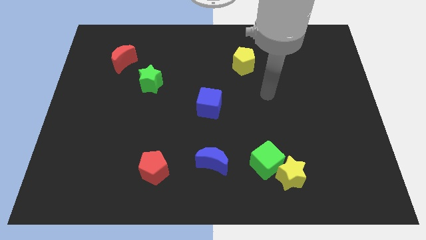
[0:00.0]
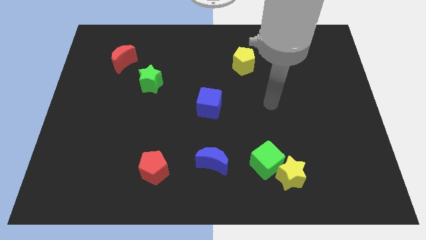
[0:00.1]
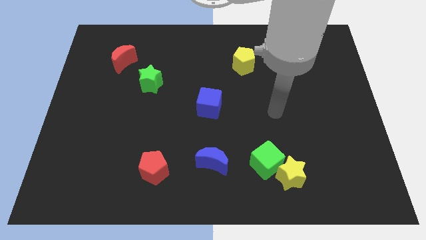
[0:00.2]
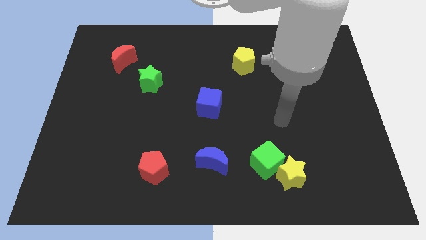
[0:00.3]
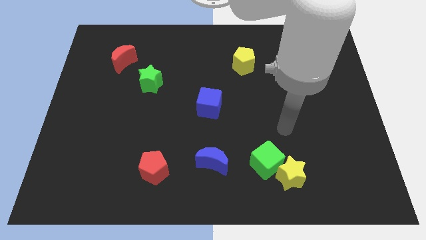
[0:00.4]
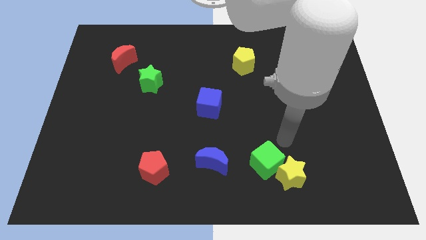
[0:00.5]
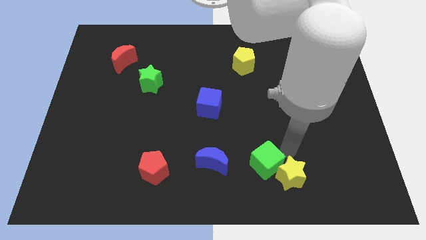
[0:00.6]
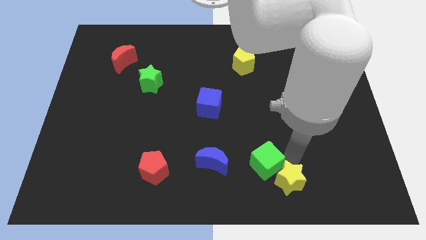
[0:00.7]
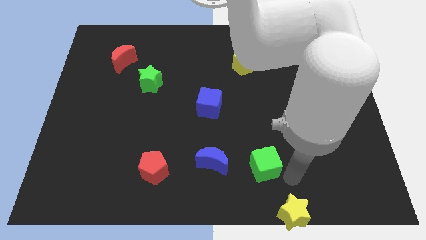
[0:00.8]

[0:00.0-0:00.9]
pull the green cube apart from the yellow star

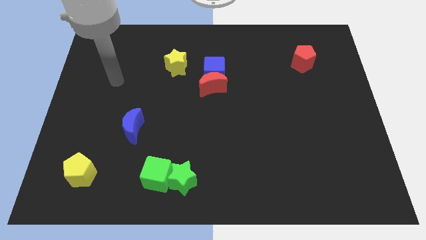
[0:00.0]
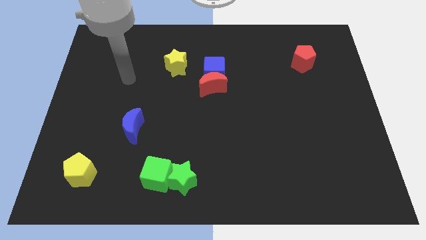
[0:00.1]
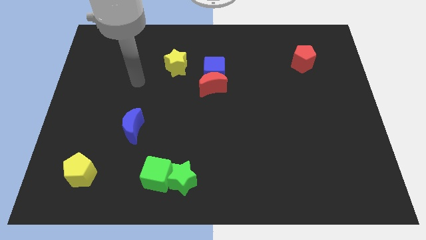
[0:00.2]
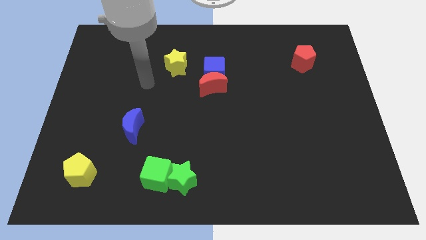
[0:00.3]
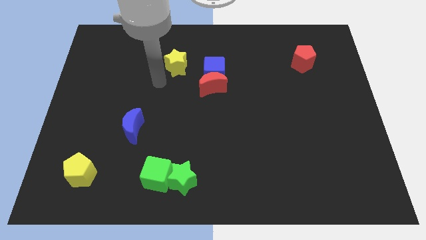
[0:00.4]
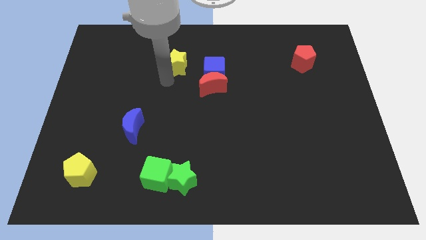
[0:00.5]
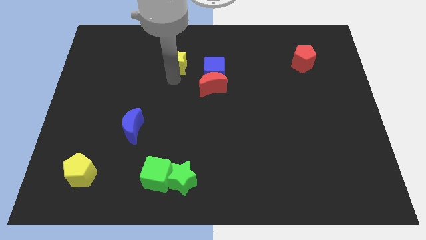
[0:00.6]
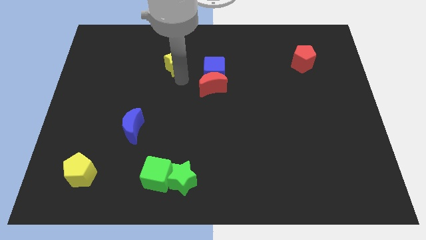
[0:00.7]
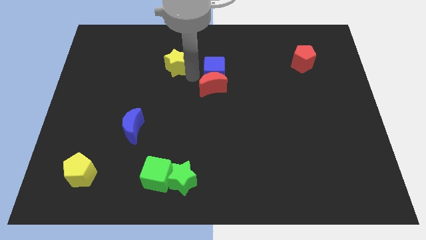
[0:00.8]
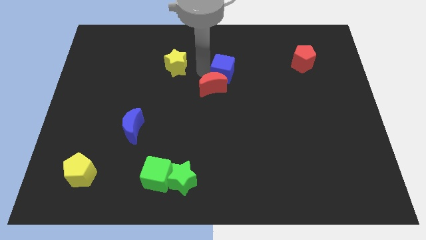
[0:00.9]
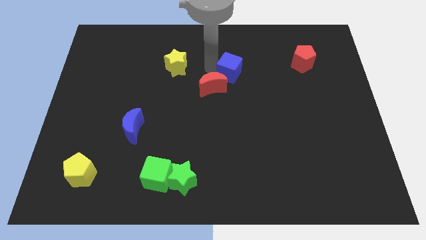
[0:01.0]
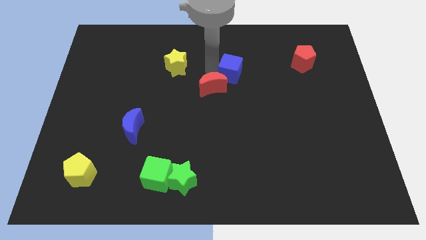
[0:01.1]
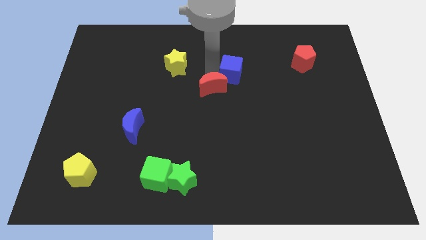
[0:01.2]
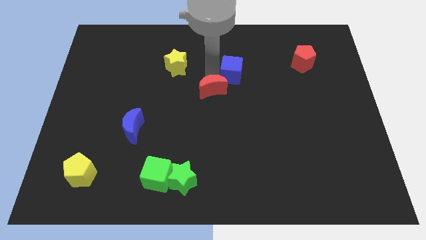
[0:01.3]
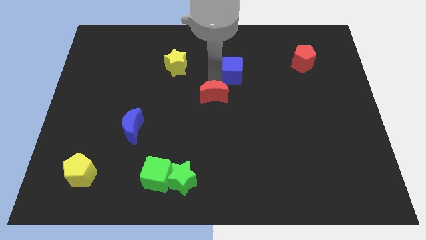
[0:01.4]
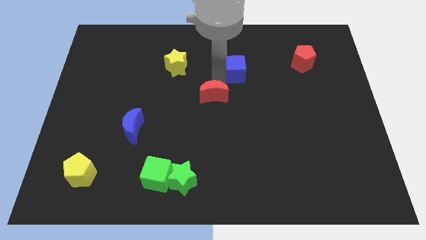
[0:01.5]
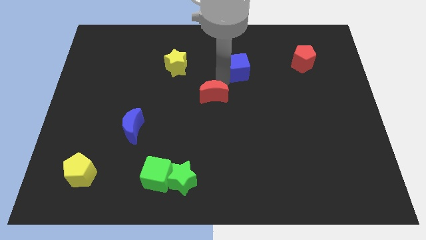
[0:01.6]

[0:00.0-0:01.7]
separate the red moon from the blue cube

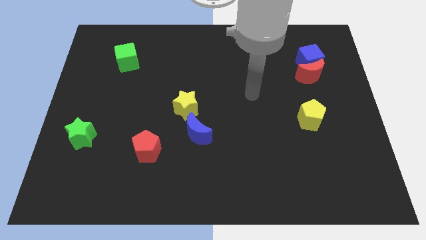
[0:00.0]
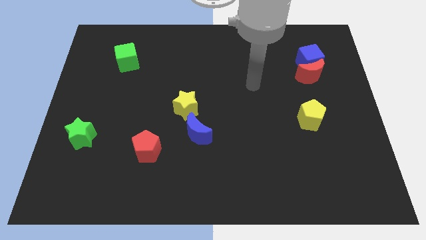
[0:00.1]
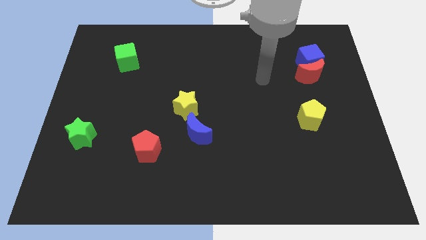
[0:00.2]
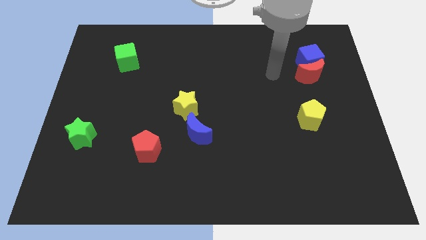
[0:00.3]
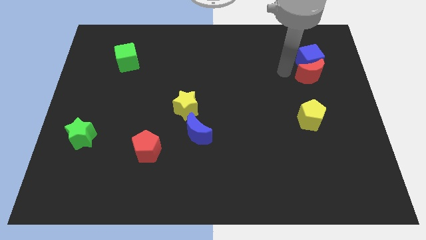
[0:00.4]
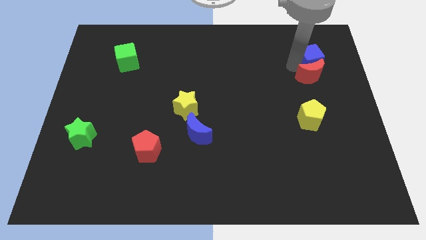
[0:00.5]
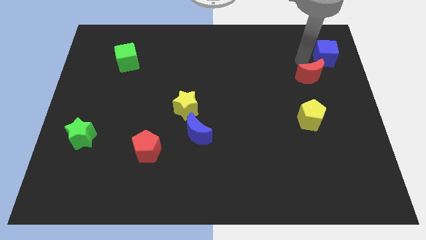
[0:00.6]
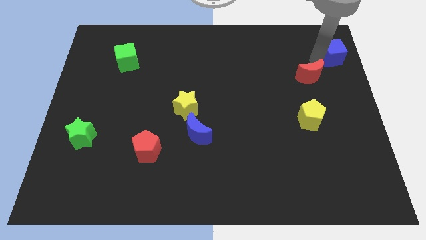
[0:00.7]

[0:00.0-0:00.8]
move the red moon away from the blue cube

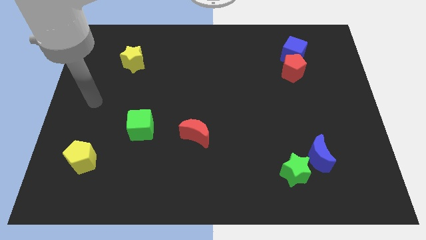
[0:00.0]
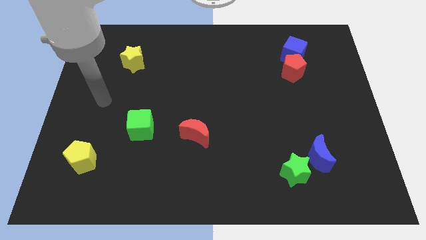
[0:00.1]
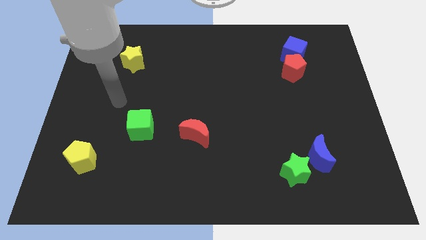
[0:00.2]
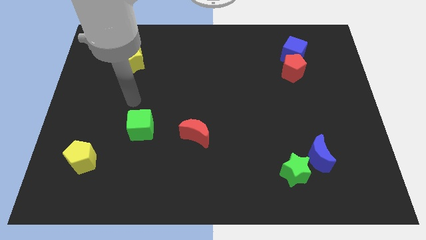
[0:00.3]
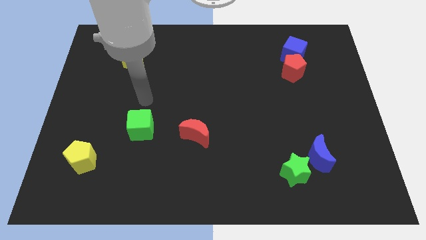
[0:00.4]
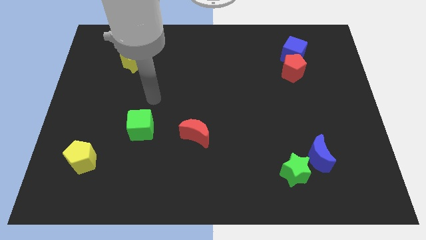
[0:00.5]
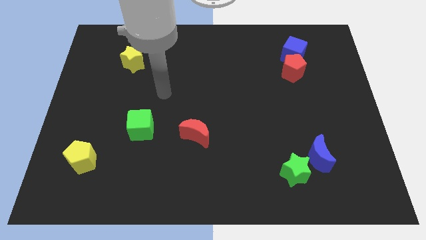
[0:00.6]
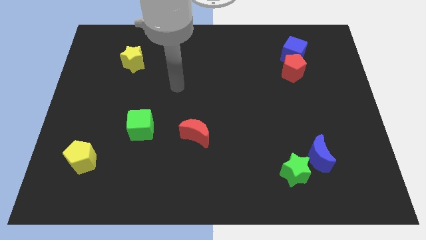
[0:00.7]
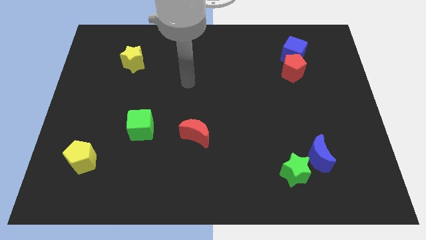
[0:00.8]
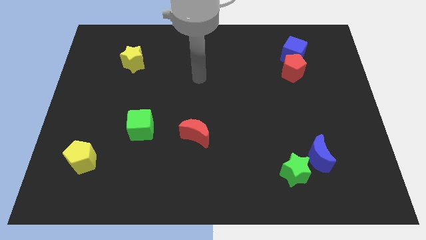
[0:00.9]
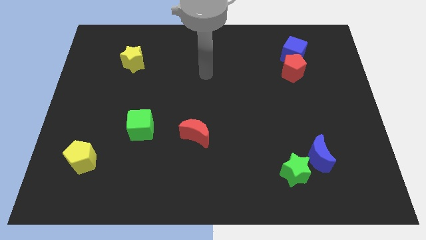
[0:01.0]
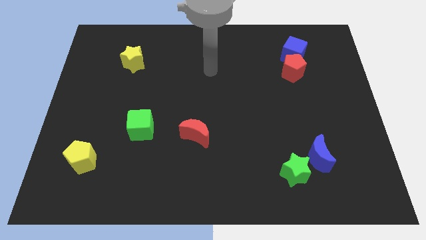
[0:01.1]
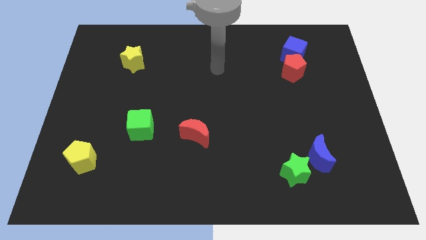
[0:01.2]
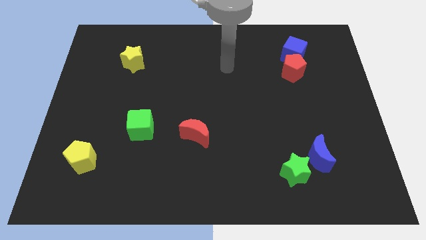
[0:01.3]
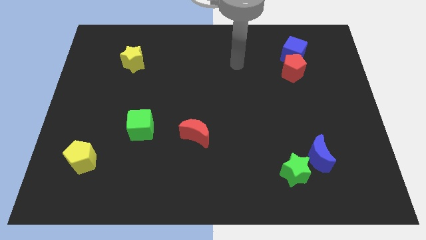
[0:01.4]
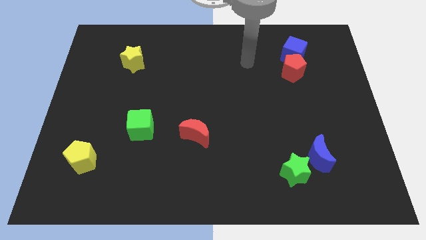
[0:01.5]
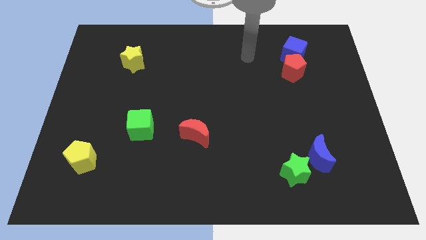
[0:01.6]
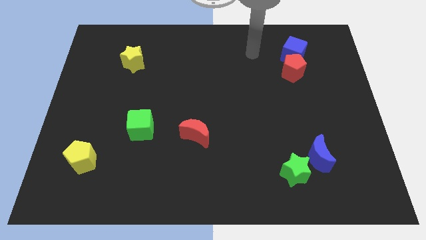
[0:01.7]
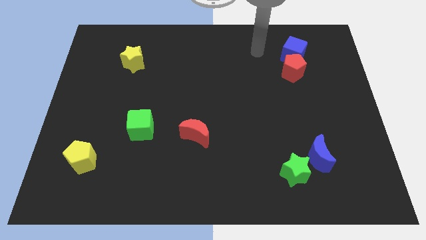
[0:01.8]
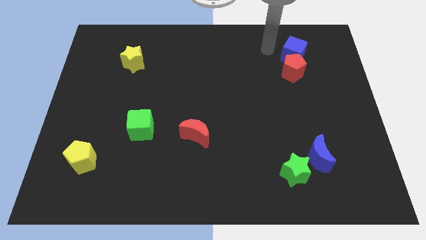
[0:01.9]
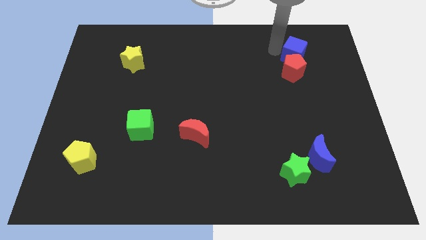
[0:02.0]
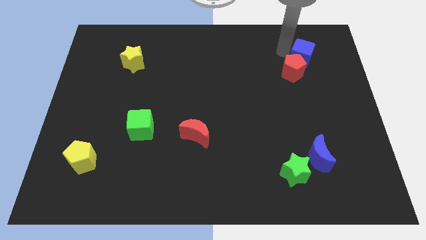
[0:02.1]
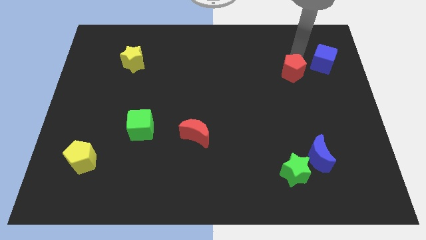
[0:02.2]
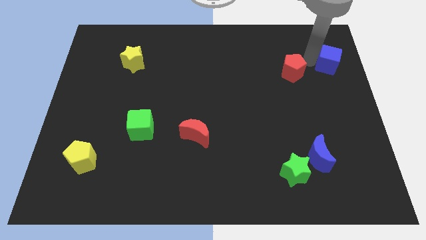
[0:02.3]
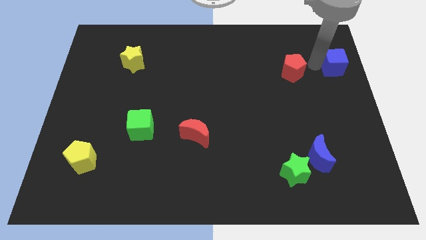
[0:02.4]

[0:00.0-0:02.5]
move the red pentagon away from the blue cube

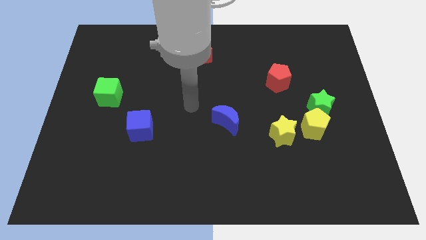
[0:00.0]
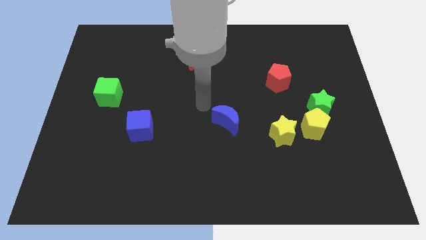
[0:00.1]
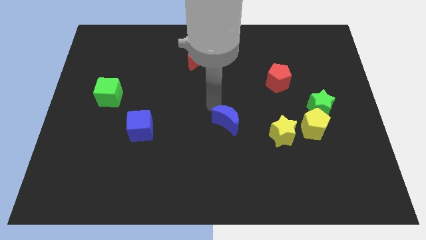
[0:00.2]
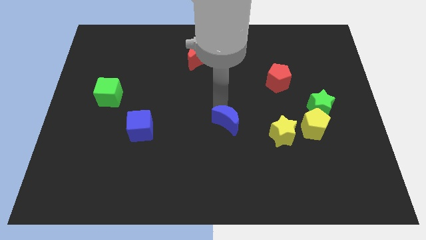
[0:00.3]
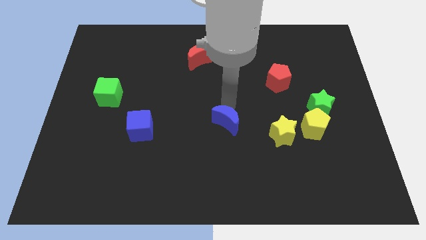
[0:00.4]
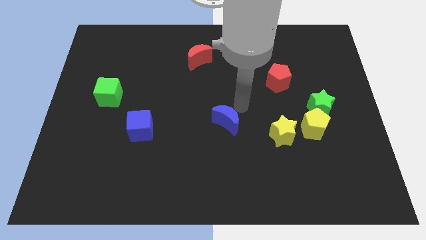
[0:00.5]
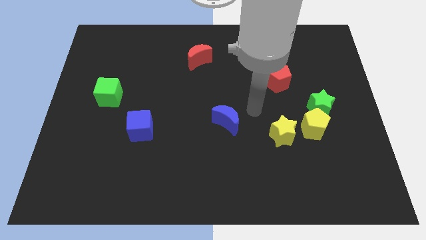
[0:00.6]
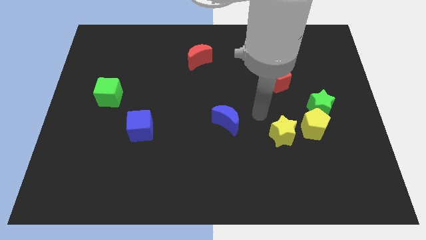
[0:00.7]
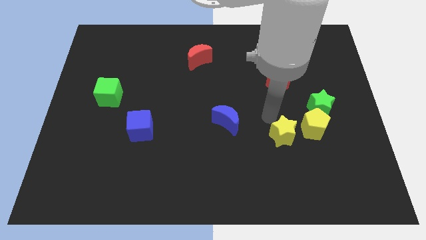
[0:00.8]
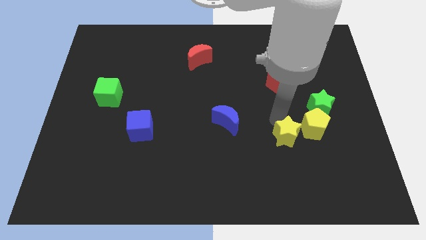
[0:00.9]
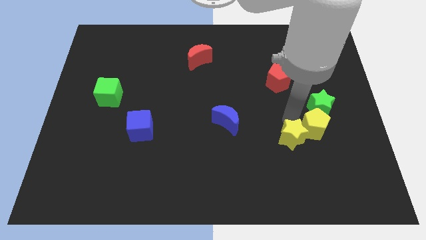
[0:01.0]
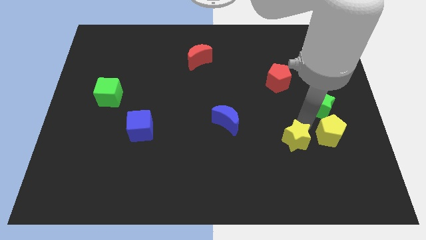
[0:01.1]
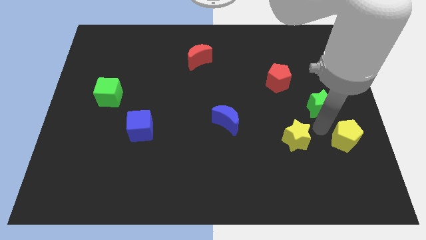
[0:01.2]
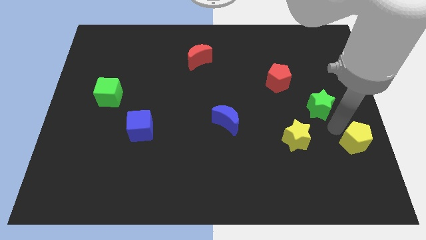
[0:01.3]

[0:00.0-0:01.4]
pull the green star apart from the yellow pentagon

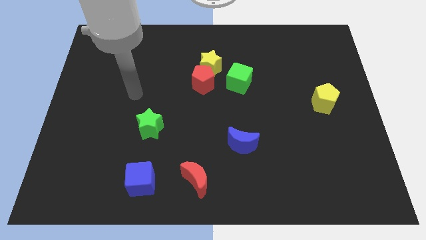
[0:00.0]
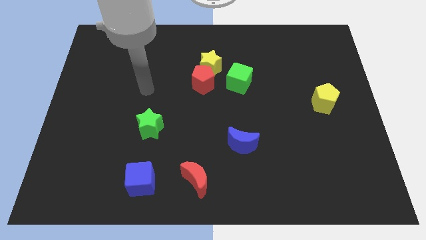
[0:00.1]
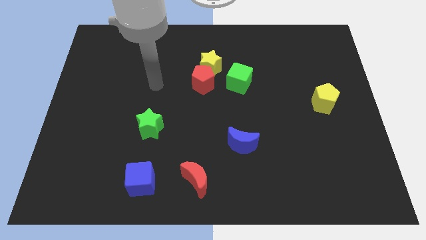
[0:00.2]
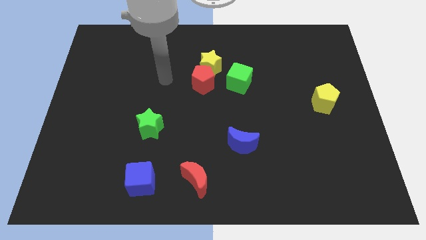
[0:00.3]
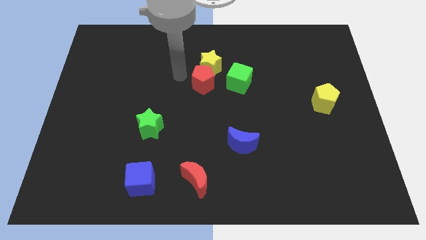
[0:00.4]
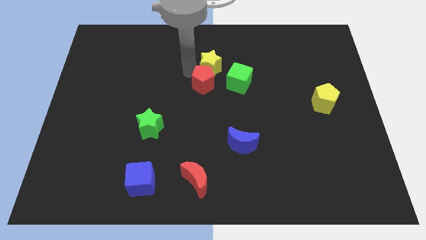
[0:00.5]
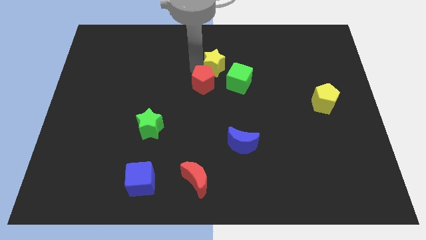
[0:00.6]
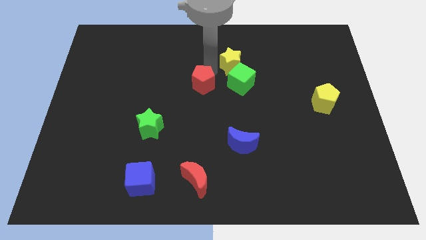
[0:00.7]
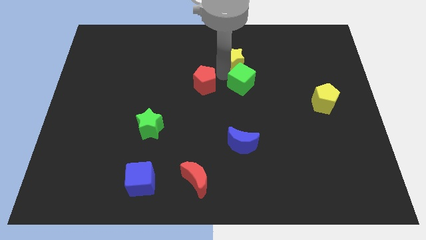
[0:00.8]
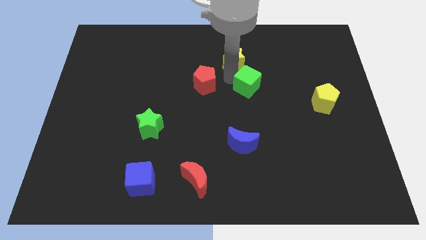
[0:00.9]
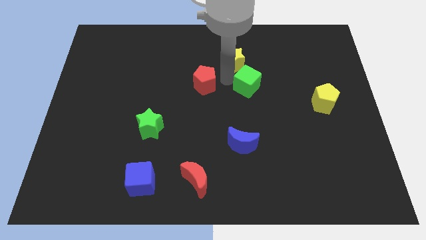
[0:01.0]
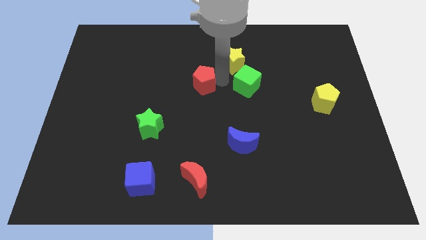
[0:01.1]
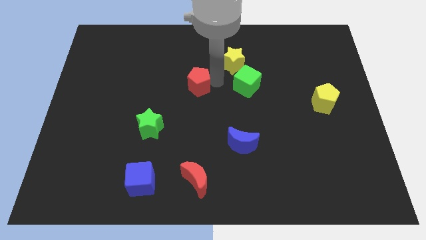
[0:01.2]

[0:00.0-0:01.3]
separate the red pentagon from the yellow star and green cube

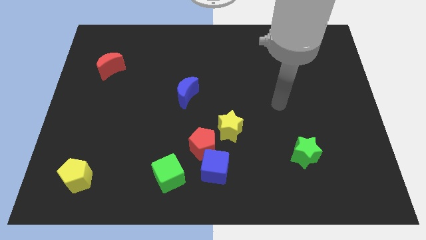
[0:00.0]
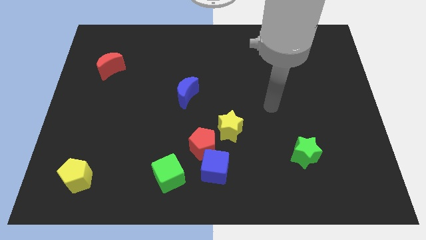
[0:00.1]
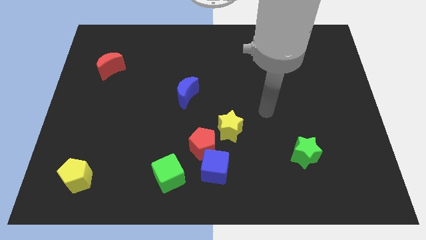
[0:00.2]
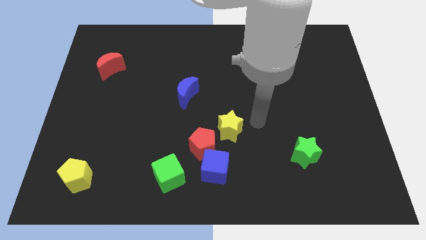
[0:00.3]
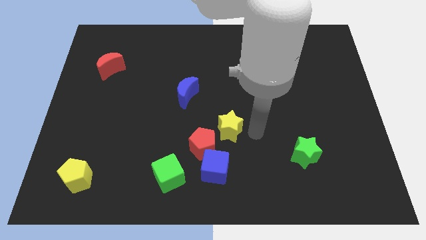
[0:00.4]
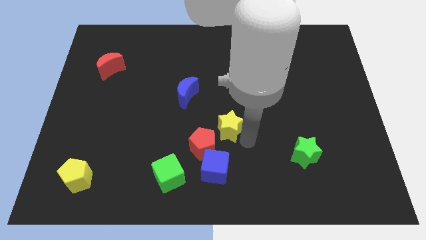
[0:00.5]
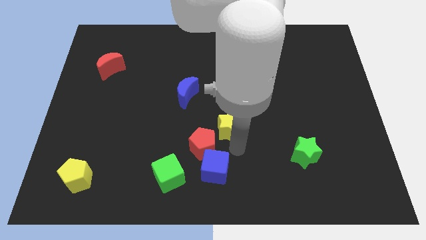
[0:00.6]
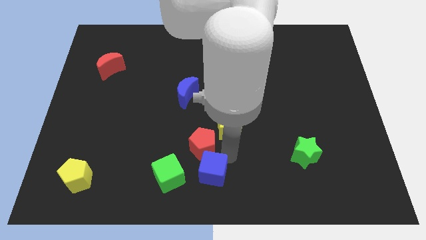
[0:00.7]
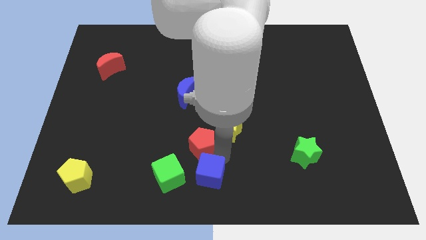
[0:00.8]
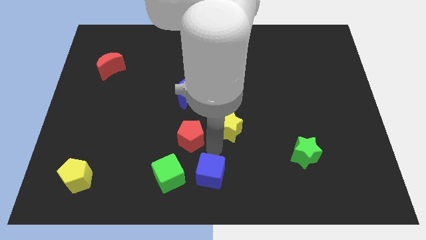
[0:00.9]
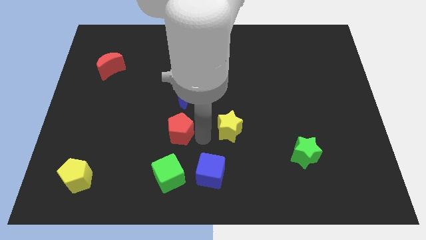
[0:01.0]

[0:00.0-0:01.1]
separate the yellow star from the red pentagon
